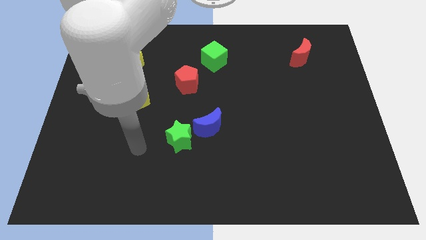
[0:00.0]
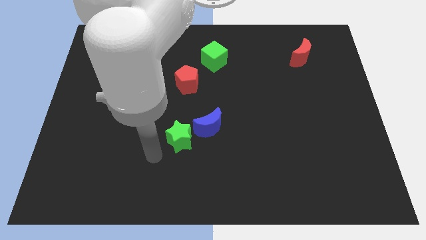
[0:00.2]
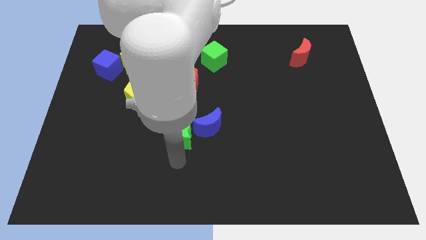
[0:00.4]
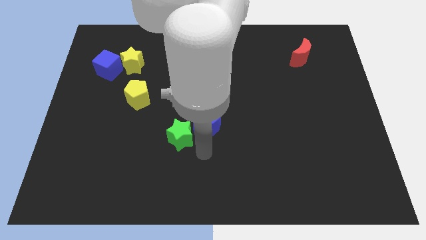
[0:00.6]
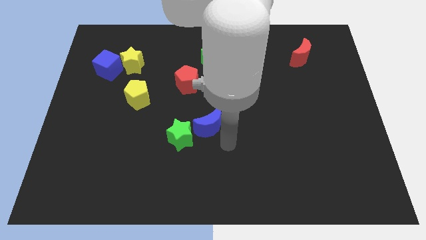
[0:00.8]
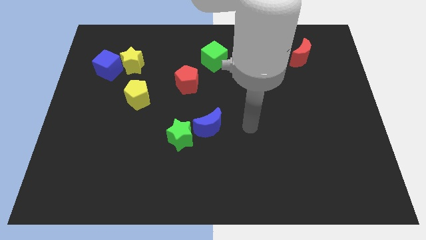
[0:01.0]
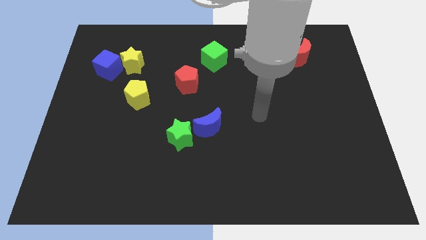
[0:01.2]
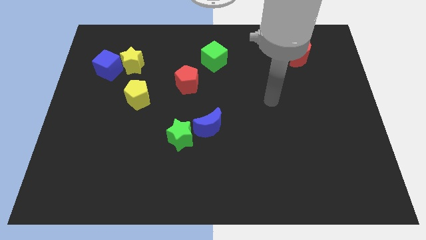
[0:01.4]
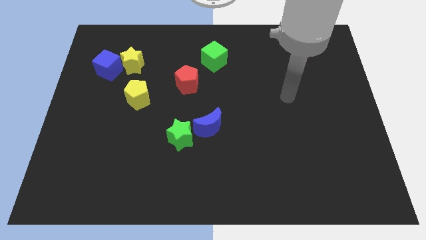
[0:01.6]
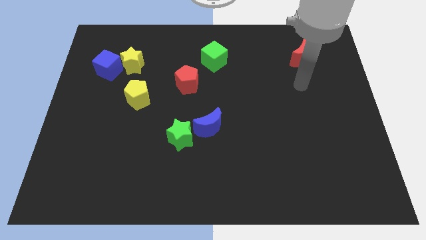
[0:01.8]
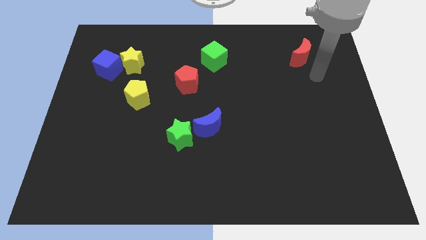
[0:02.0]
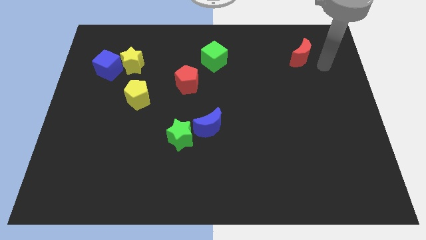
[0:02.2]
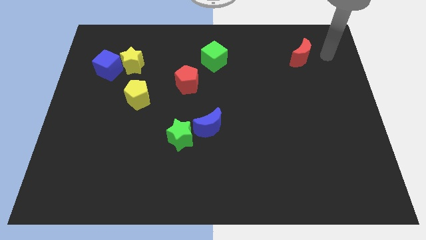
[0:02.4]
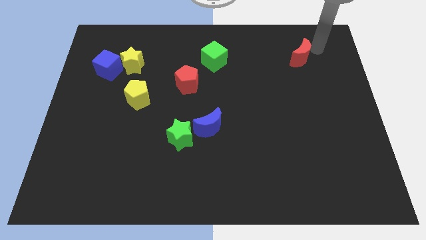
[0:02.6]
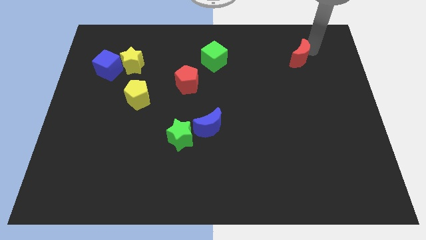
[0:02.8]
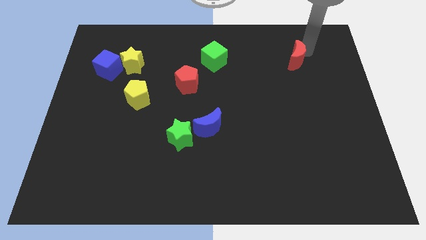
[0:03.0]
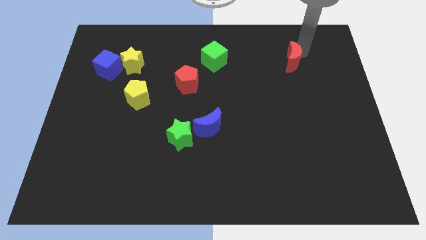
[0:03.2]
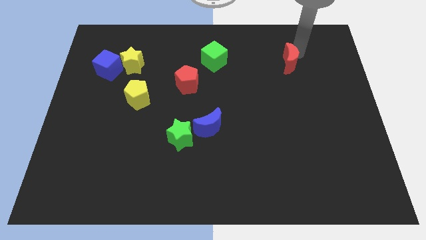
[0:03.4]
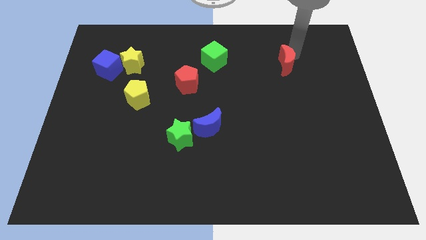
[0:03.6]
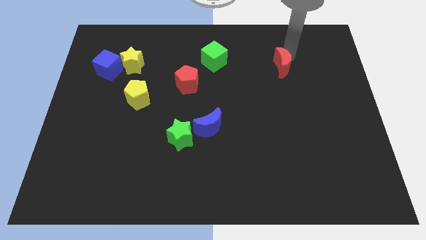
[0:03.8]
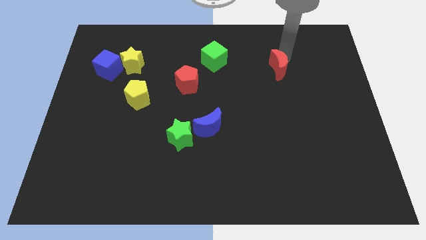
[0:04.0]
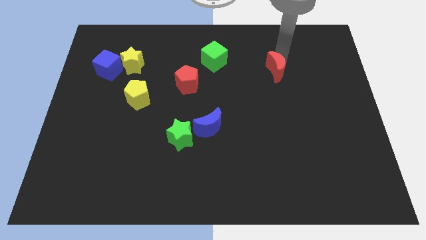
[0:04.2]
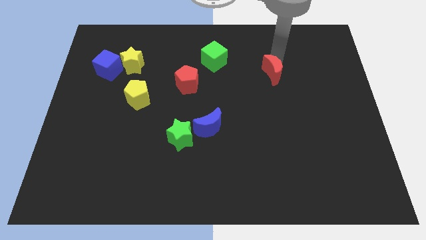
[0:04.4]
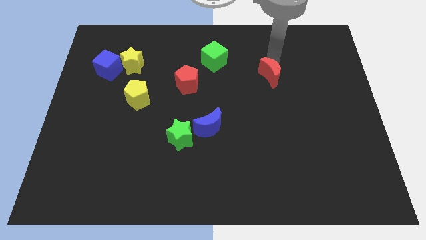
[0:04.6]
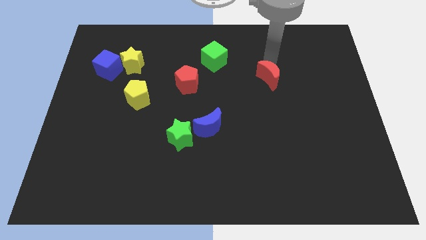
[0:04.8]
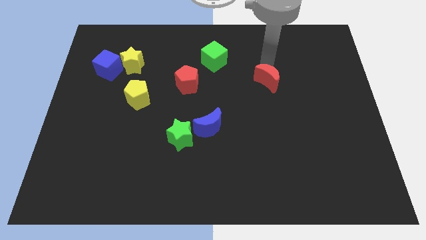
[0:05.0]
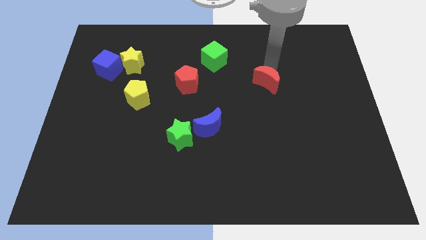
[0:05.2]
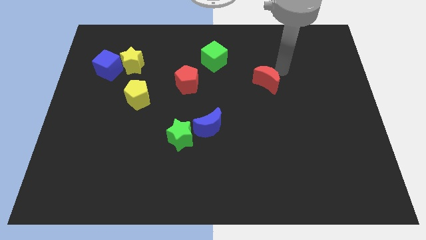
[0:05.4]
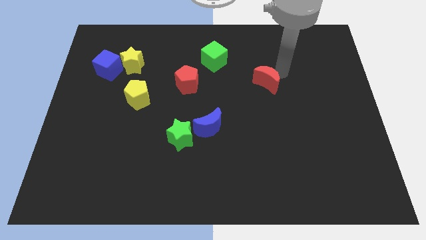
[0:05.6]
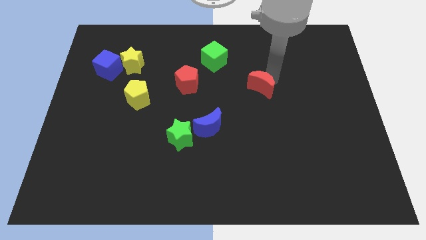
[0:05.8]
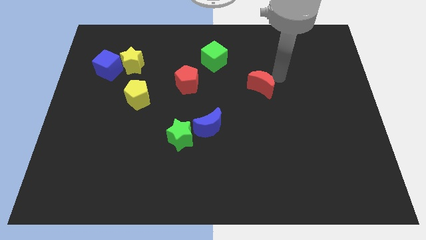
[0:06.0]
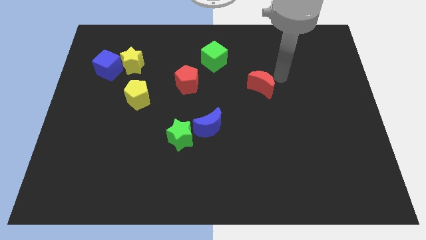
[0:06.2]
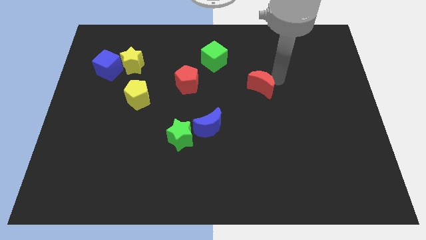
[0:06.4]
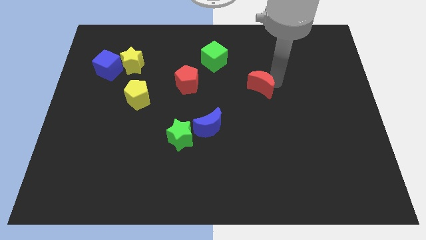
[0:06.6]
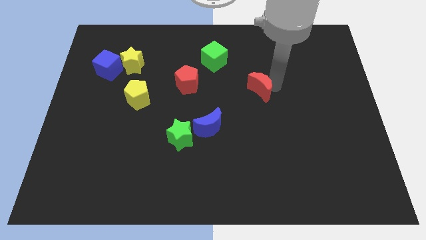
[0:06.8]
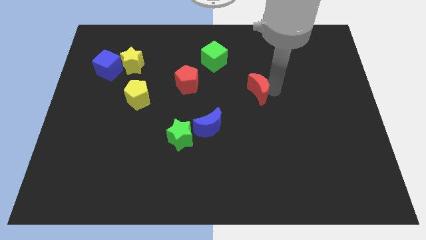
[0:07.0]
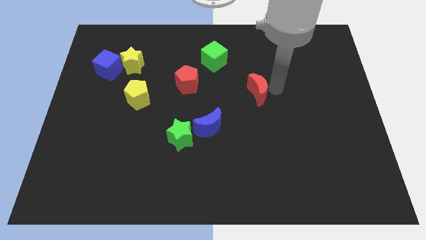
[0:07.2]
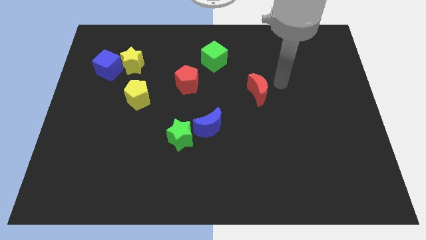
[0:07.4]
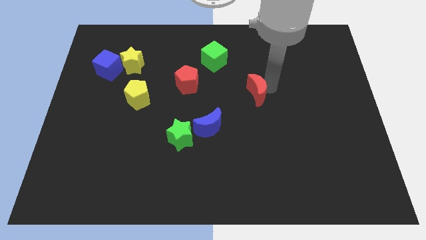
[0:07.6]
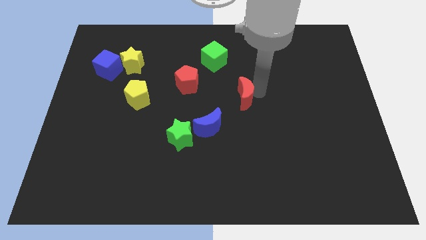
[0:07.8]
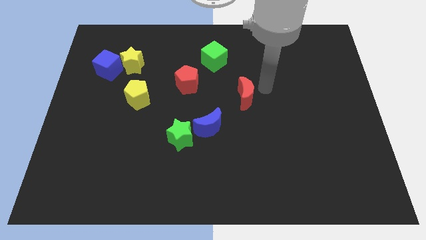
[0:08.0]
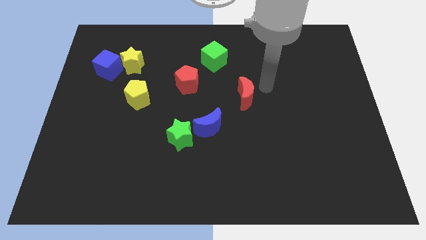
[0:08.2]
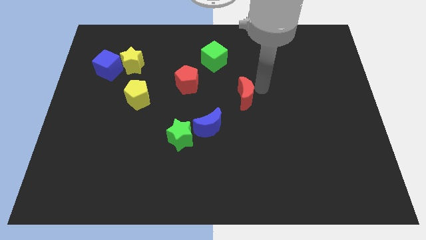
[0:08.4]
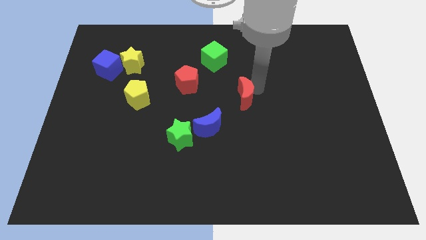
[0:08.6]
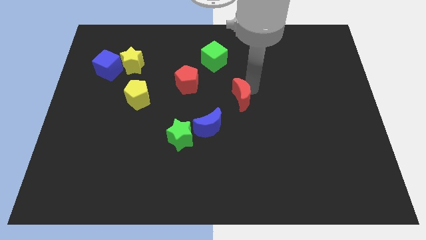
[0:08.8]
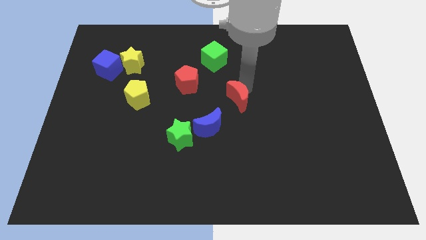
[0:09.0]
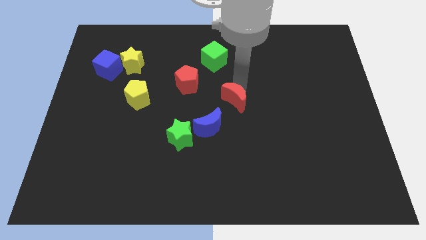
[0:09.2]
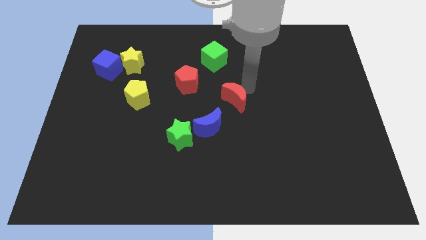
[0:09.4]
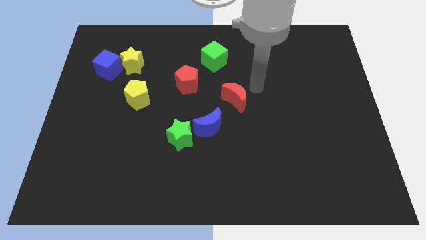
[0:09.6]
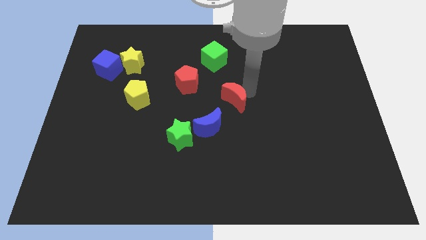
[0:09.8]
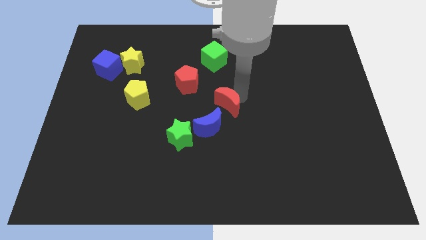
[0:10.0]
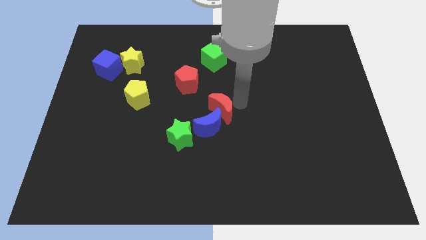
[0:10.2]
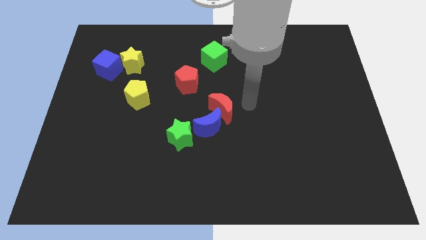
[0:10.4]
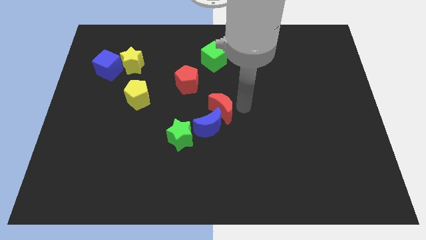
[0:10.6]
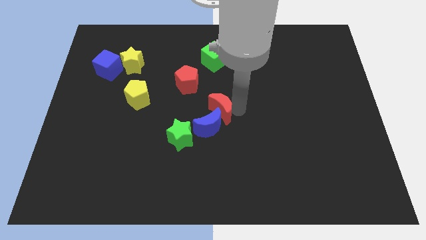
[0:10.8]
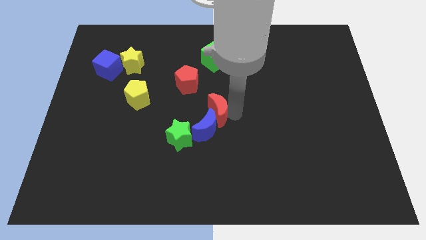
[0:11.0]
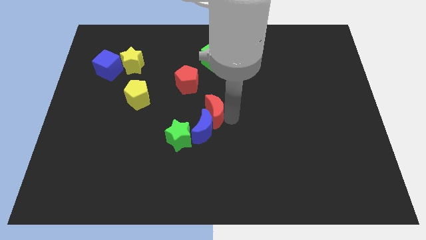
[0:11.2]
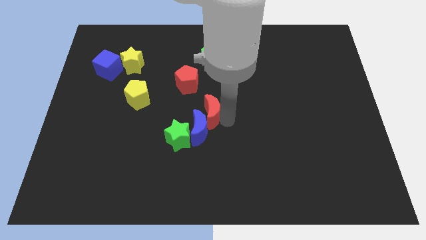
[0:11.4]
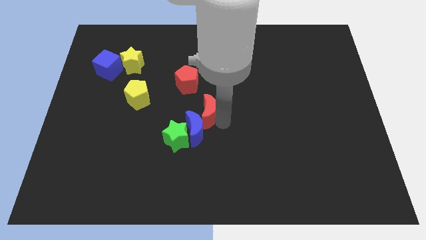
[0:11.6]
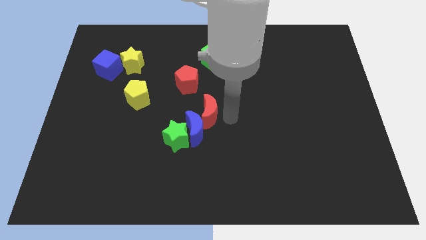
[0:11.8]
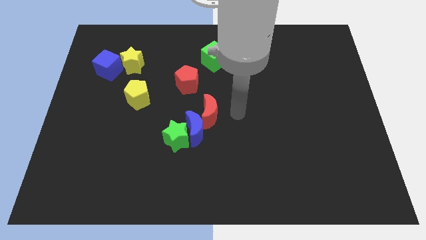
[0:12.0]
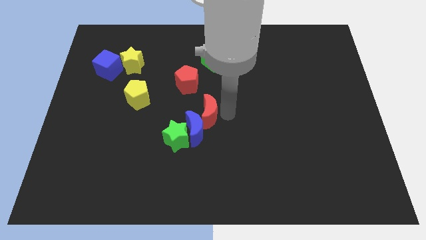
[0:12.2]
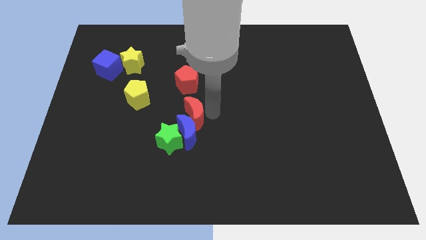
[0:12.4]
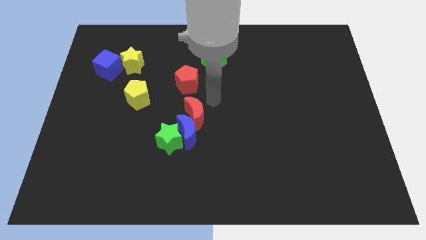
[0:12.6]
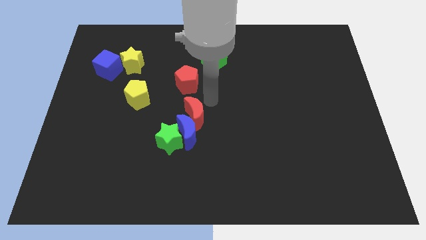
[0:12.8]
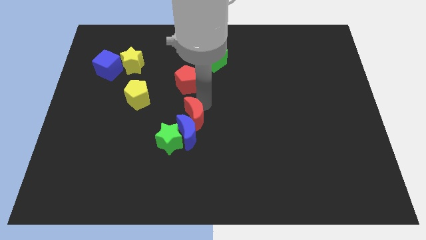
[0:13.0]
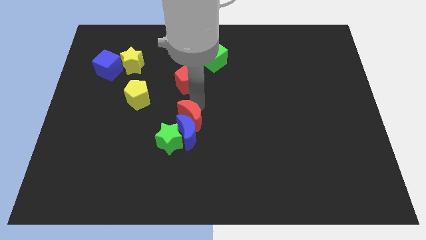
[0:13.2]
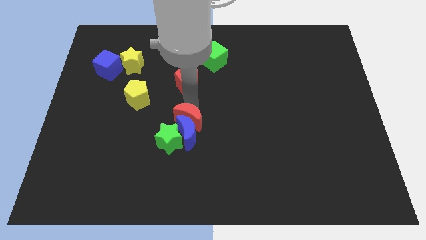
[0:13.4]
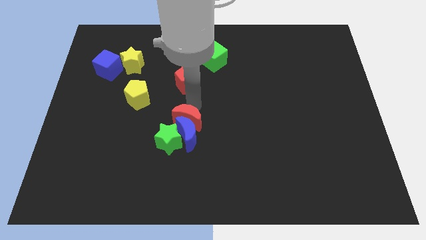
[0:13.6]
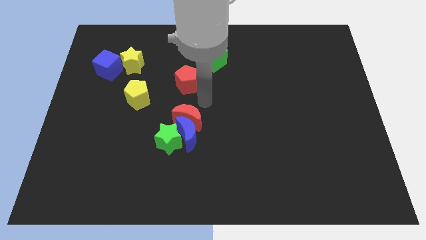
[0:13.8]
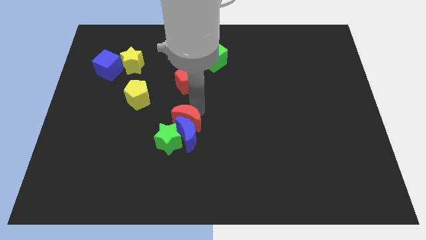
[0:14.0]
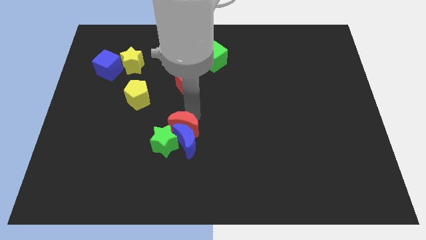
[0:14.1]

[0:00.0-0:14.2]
move the red moon to the green star
